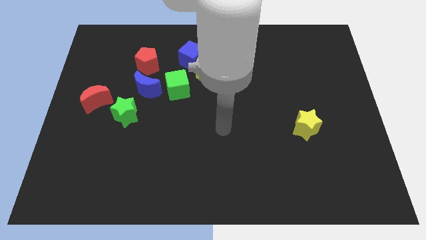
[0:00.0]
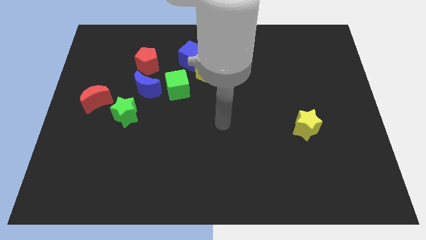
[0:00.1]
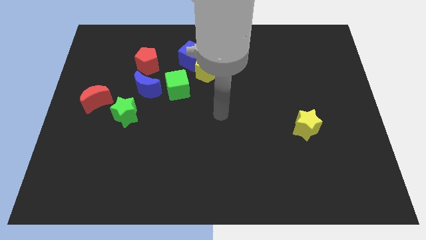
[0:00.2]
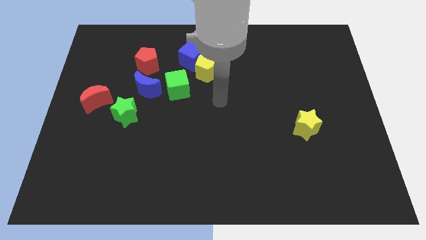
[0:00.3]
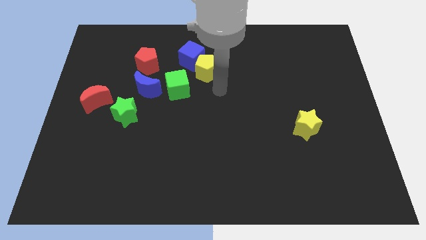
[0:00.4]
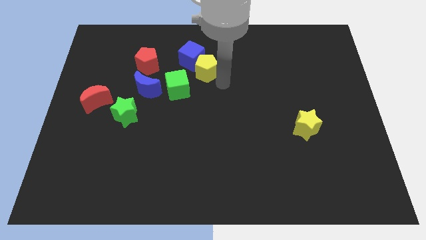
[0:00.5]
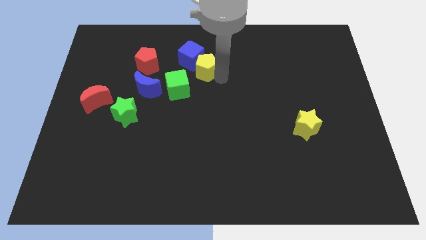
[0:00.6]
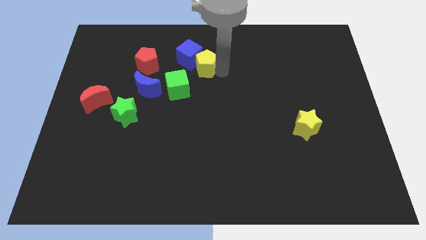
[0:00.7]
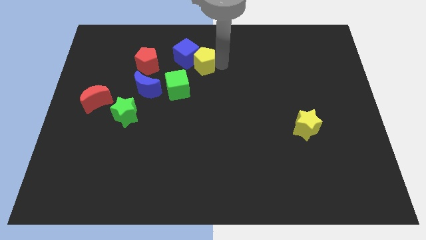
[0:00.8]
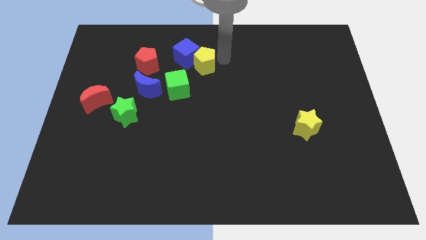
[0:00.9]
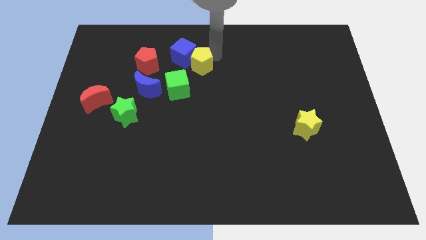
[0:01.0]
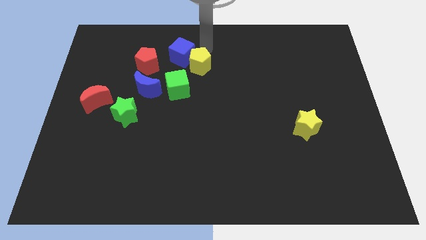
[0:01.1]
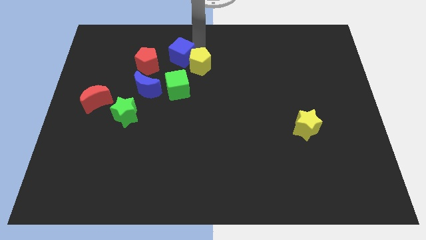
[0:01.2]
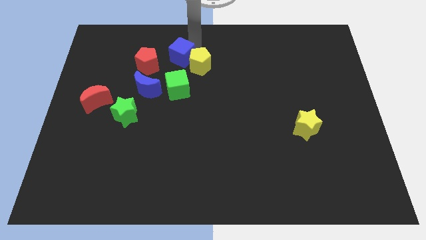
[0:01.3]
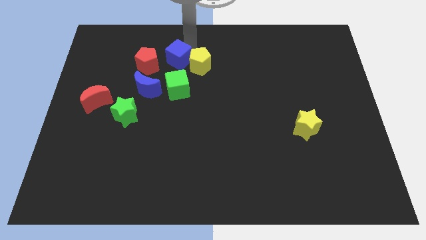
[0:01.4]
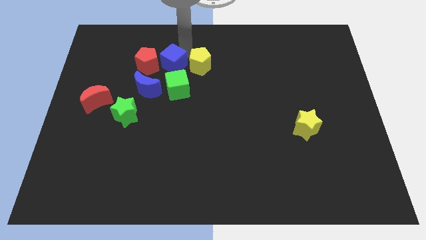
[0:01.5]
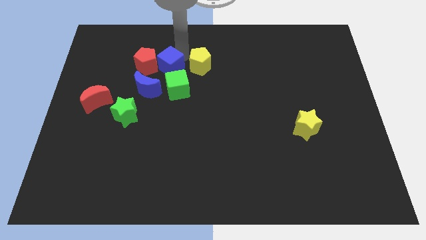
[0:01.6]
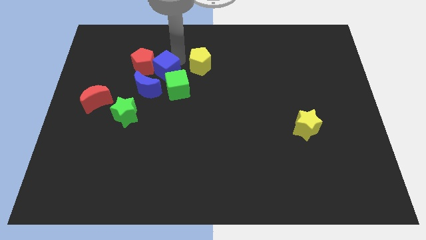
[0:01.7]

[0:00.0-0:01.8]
slide the blue cube downwards and then left somewhat

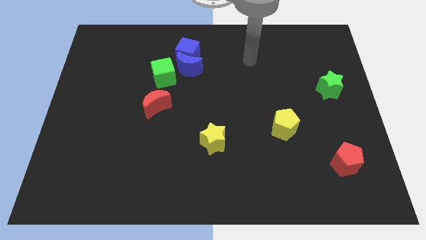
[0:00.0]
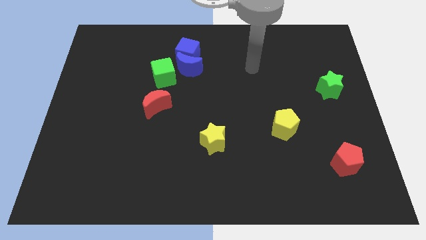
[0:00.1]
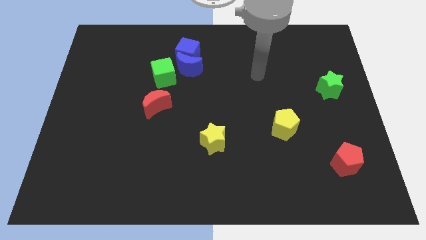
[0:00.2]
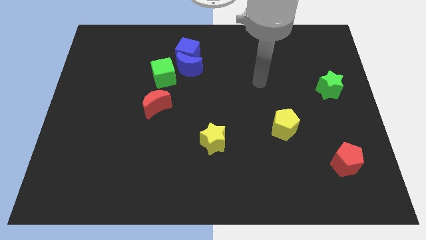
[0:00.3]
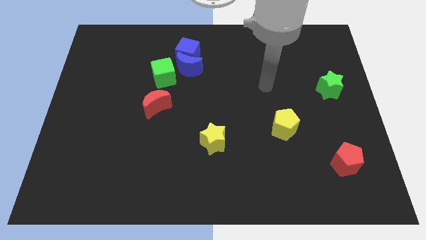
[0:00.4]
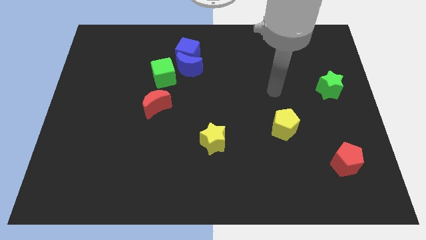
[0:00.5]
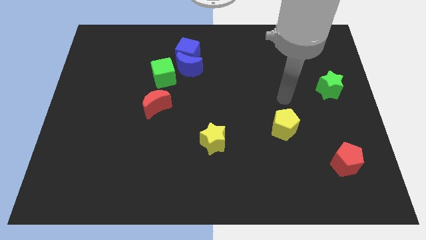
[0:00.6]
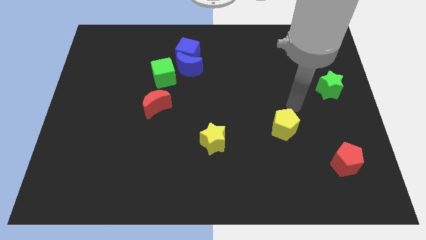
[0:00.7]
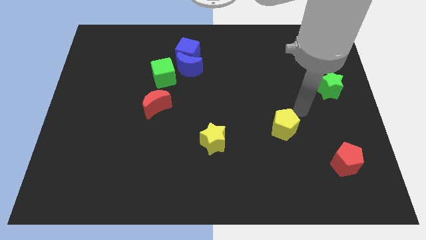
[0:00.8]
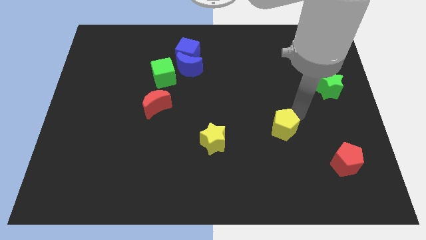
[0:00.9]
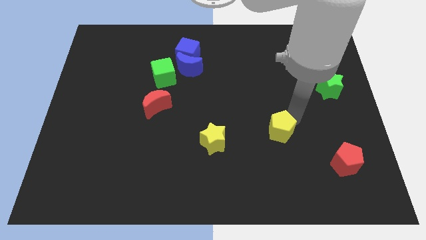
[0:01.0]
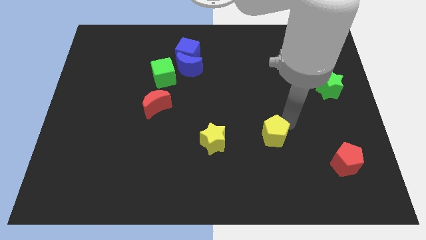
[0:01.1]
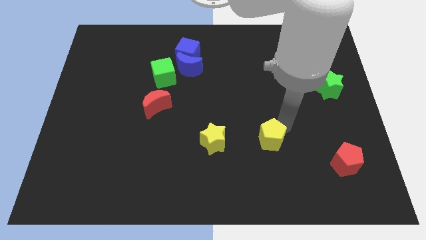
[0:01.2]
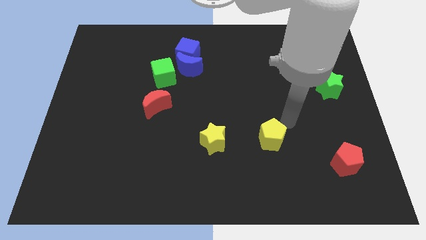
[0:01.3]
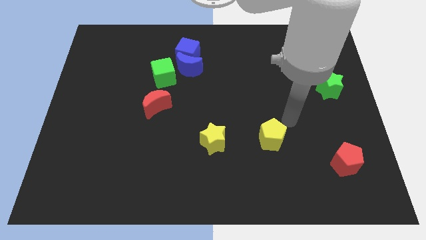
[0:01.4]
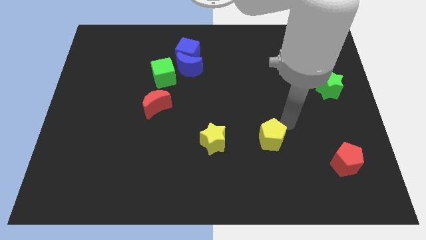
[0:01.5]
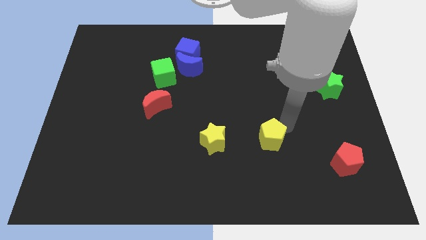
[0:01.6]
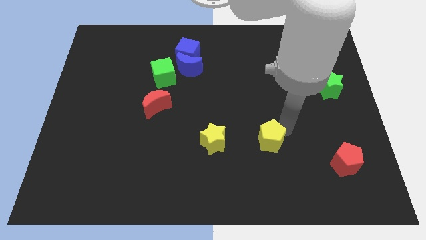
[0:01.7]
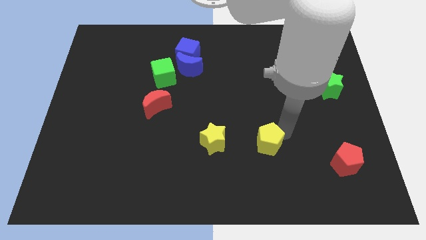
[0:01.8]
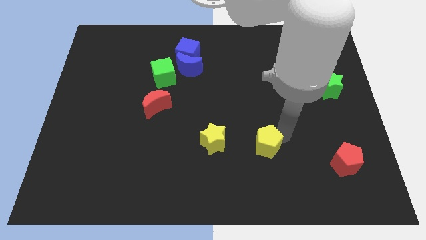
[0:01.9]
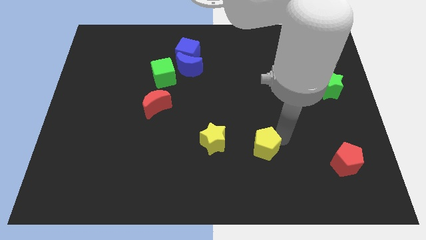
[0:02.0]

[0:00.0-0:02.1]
slightly push the yellow pentagon down and to the left

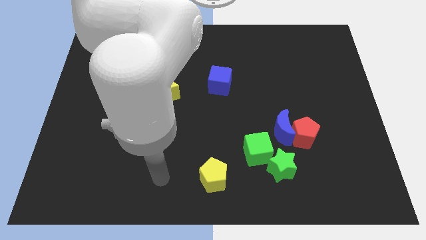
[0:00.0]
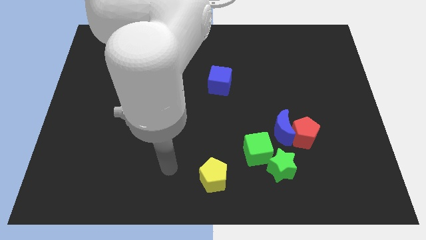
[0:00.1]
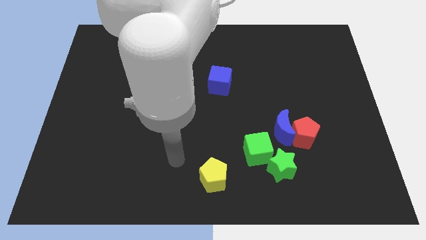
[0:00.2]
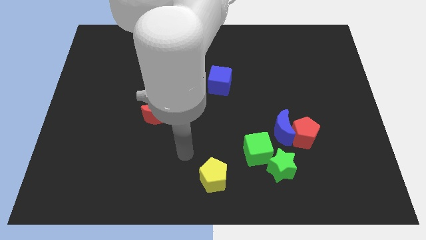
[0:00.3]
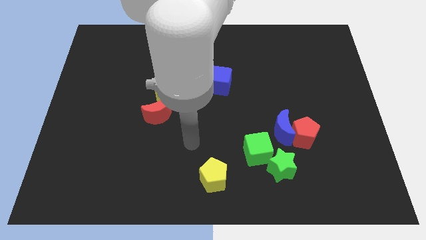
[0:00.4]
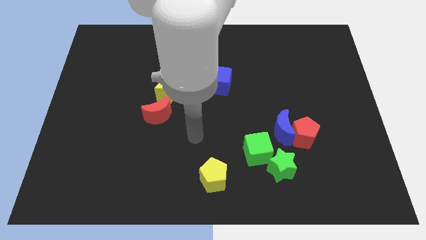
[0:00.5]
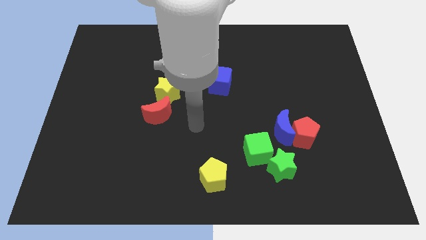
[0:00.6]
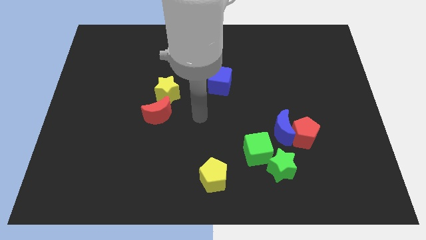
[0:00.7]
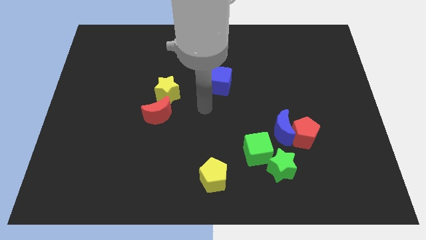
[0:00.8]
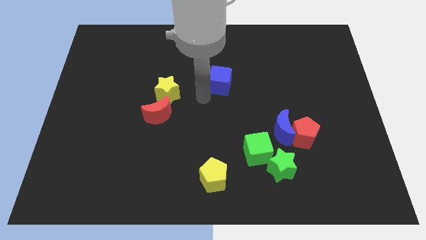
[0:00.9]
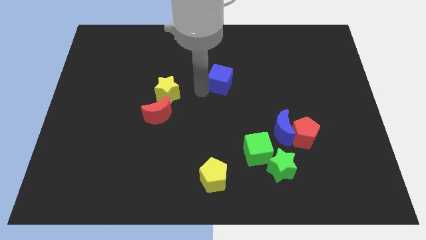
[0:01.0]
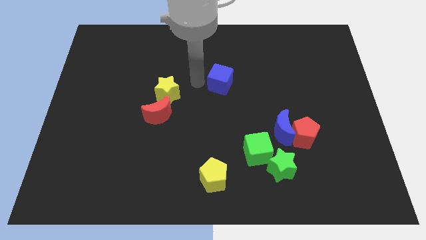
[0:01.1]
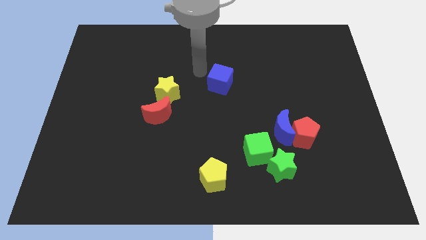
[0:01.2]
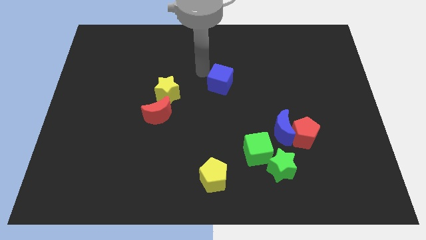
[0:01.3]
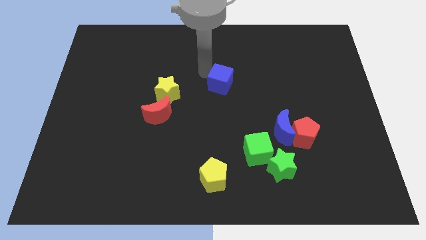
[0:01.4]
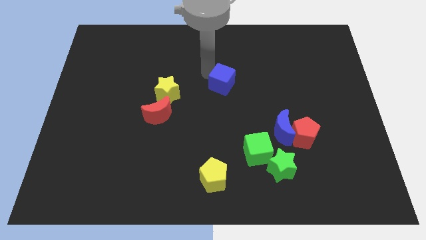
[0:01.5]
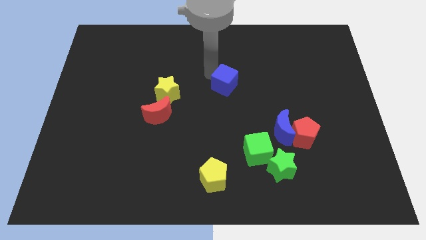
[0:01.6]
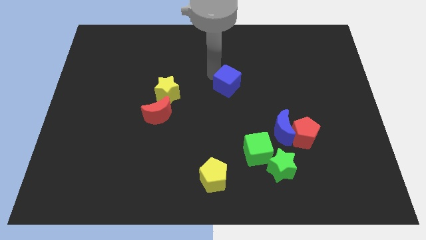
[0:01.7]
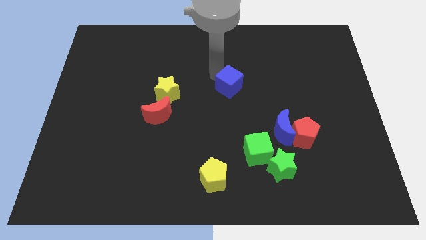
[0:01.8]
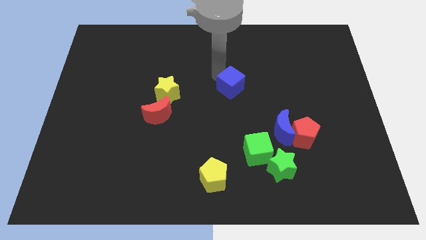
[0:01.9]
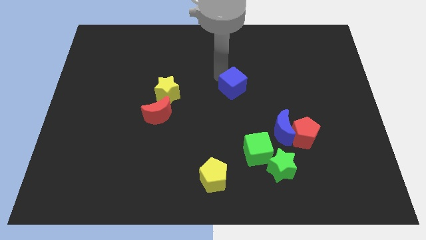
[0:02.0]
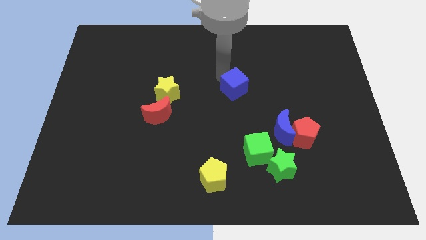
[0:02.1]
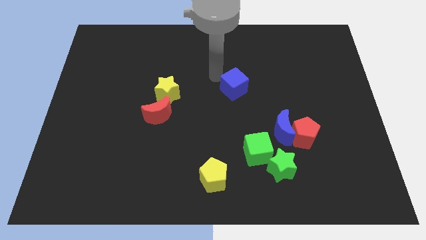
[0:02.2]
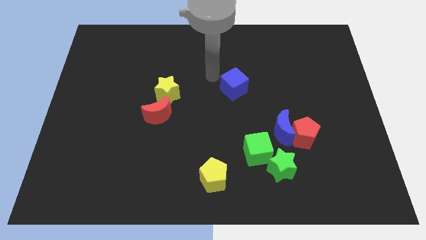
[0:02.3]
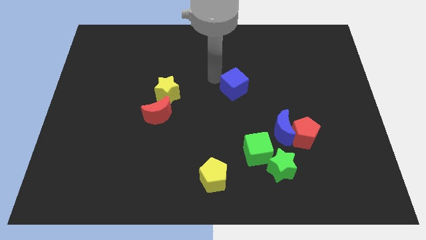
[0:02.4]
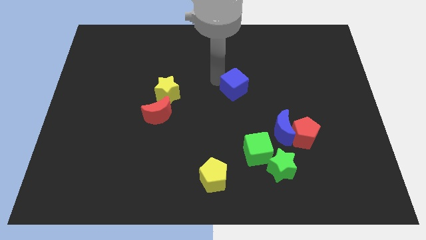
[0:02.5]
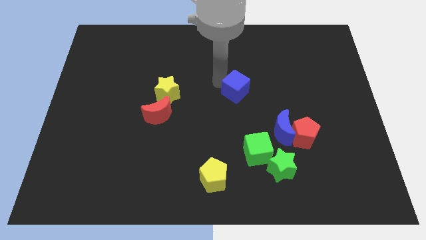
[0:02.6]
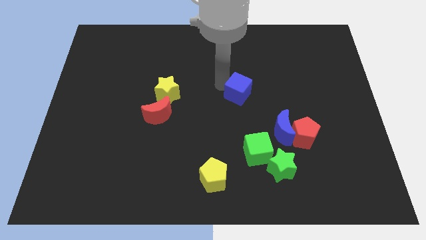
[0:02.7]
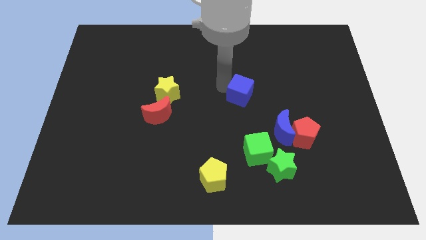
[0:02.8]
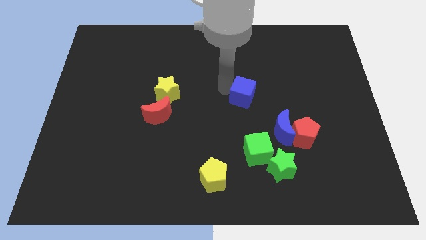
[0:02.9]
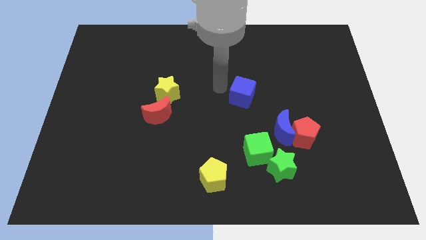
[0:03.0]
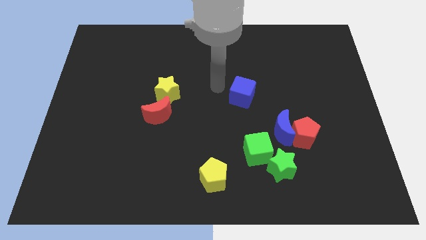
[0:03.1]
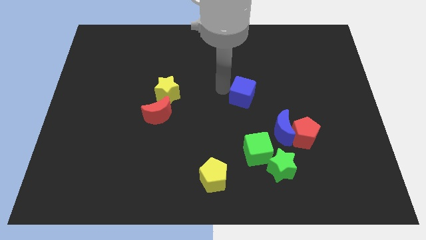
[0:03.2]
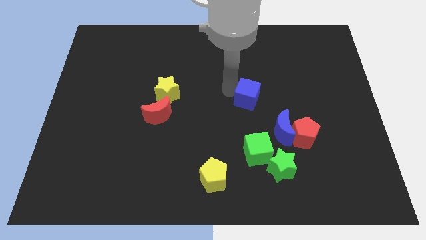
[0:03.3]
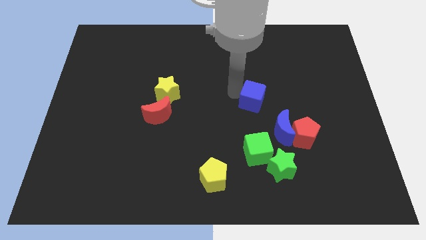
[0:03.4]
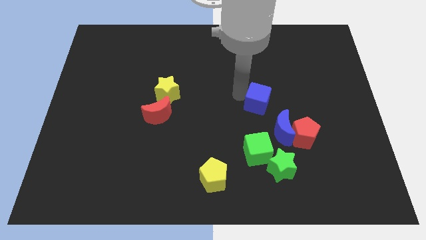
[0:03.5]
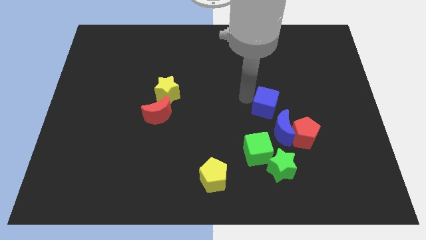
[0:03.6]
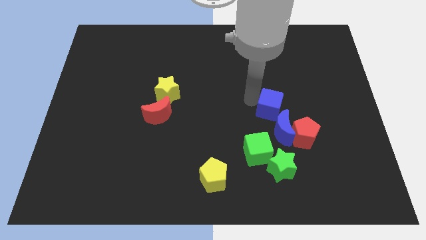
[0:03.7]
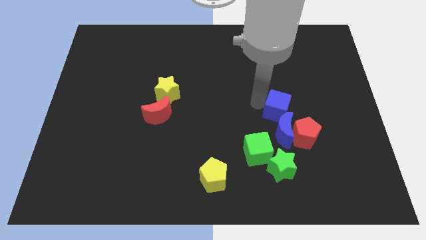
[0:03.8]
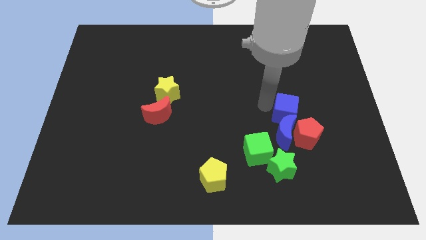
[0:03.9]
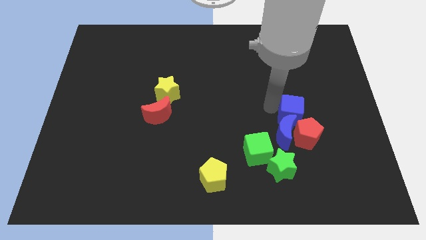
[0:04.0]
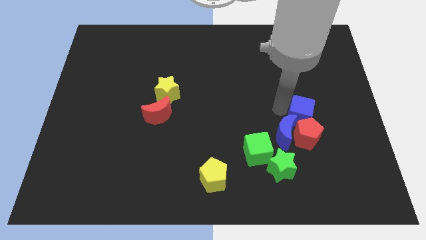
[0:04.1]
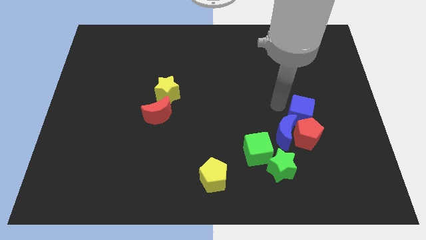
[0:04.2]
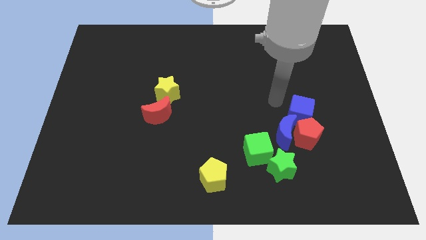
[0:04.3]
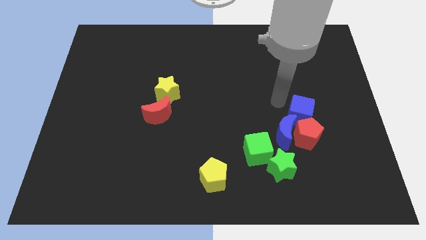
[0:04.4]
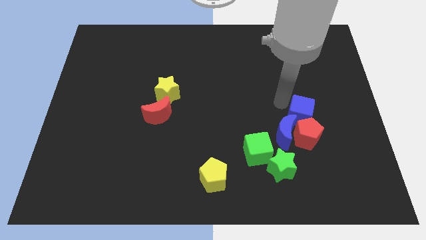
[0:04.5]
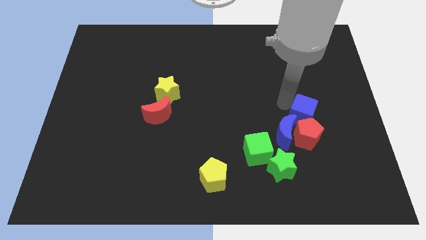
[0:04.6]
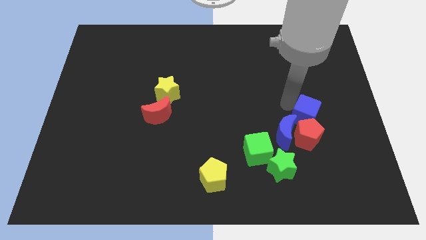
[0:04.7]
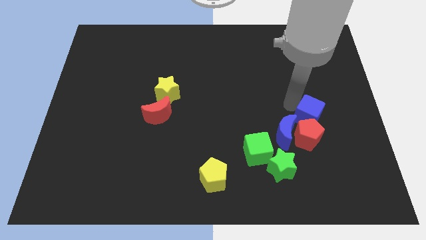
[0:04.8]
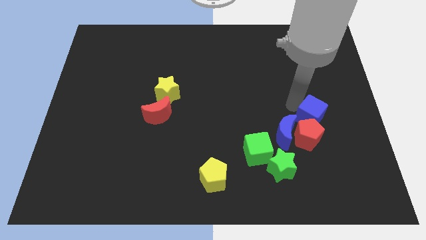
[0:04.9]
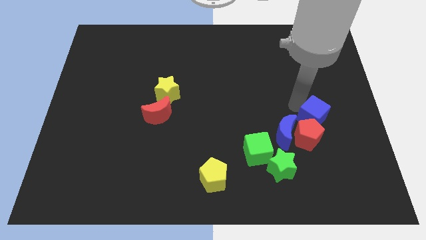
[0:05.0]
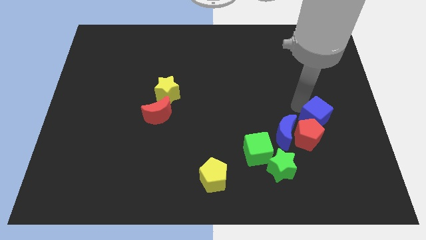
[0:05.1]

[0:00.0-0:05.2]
move the blue cube downwards and right
